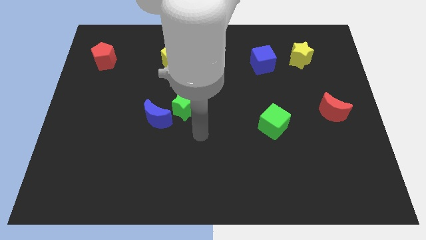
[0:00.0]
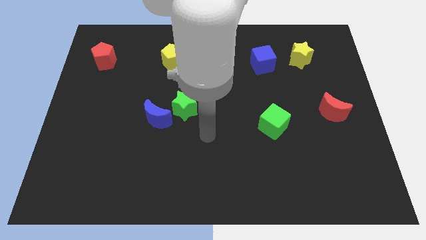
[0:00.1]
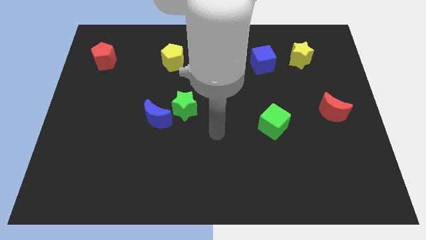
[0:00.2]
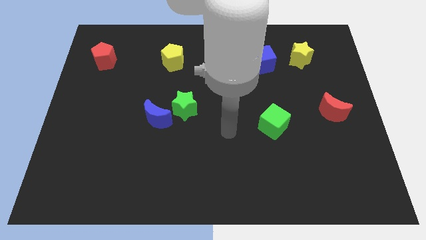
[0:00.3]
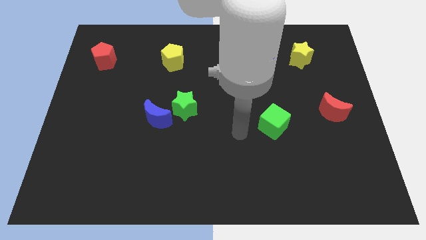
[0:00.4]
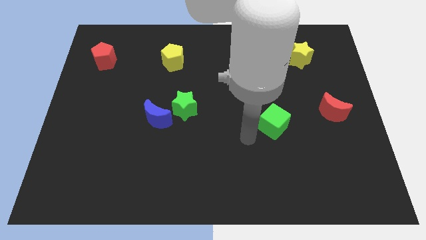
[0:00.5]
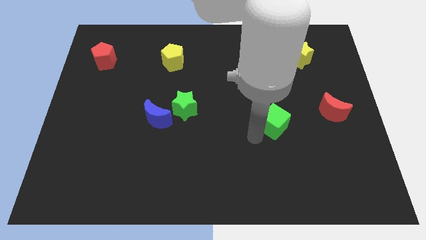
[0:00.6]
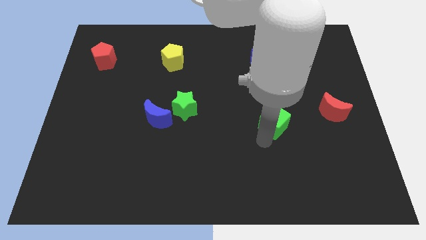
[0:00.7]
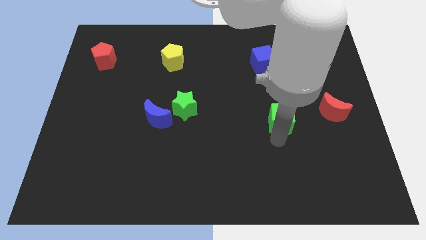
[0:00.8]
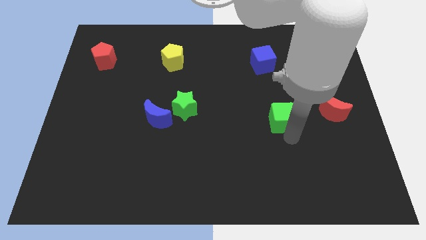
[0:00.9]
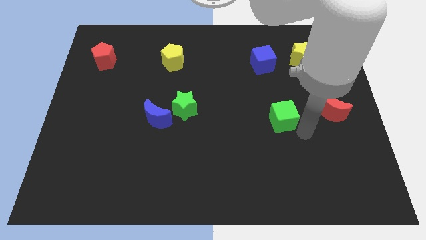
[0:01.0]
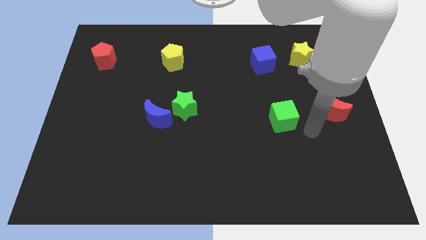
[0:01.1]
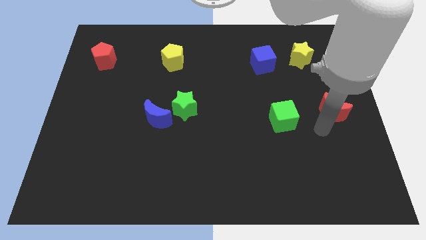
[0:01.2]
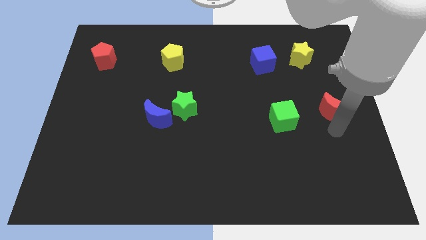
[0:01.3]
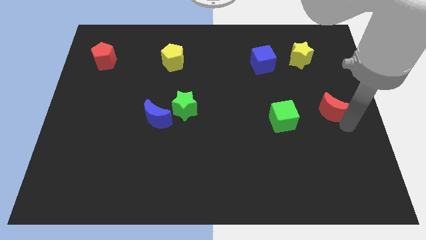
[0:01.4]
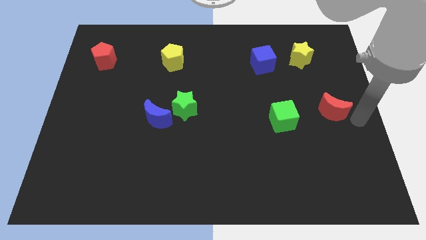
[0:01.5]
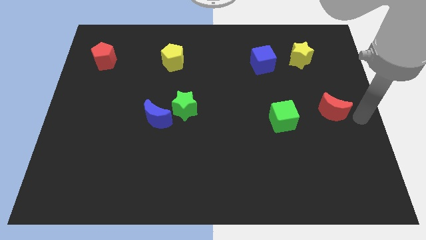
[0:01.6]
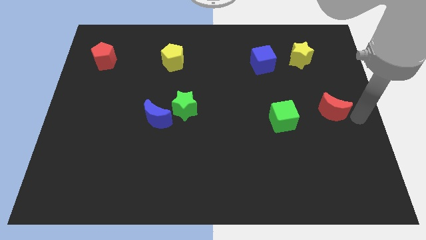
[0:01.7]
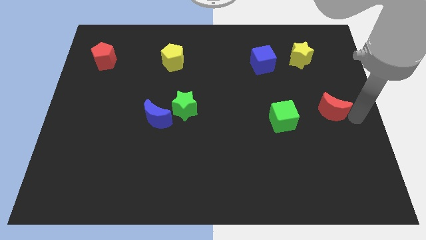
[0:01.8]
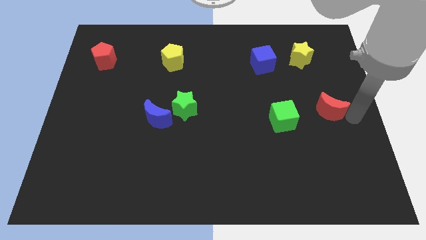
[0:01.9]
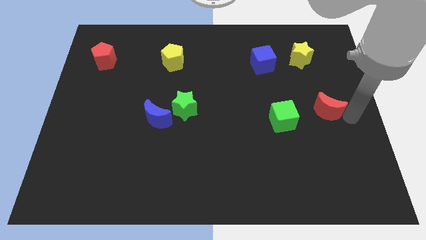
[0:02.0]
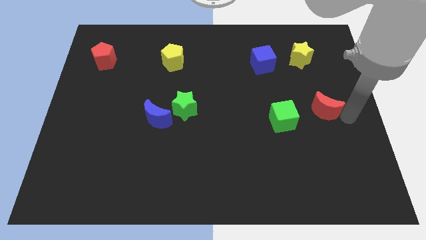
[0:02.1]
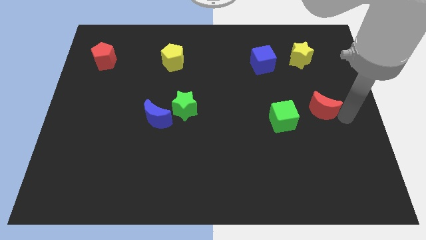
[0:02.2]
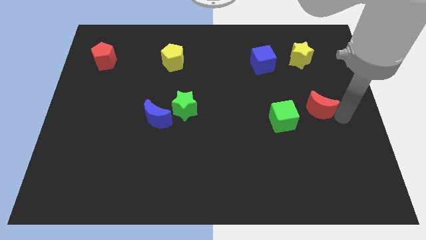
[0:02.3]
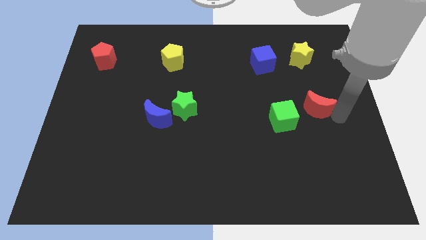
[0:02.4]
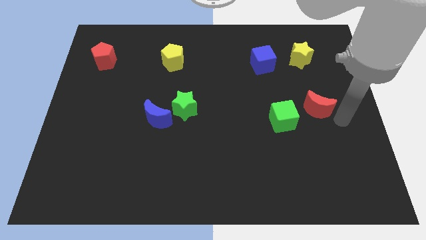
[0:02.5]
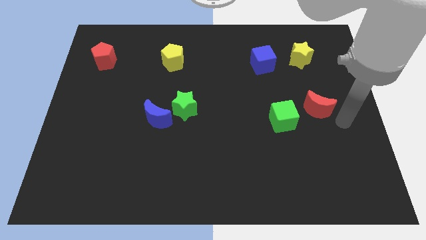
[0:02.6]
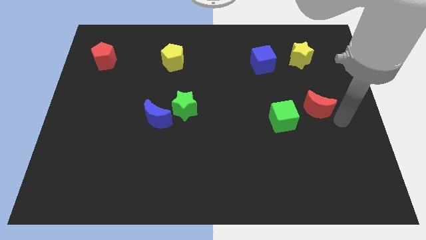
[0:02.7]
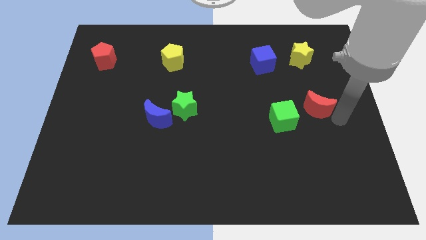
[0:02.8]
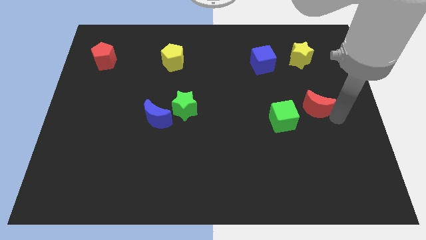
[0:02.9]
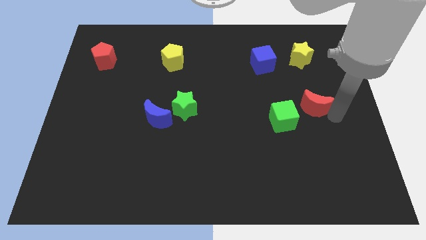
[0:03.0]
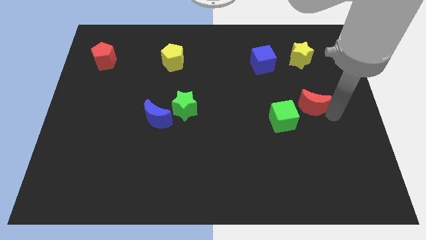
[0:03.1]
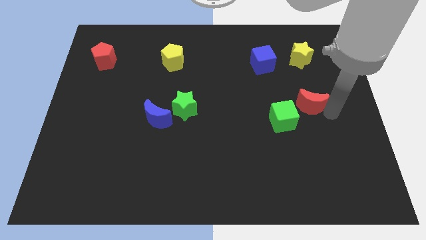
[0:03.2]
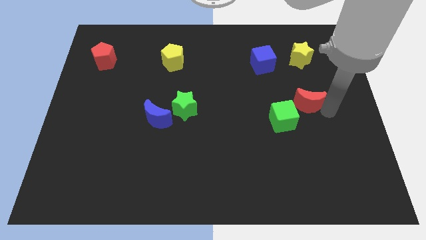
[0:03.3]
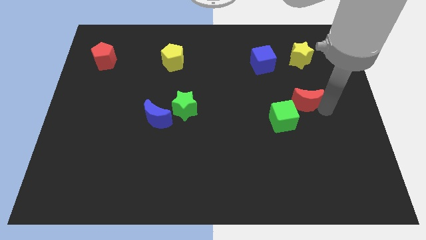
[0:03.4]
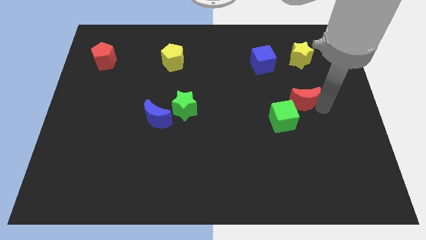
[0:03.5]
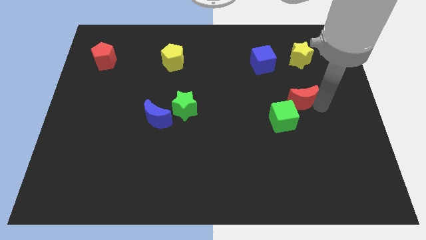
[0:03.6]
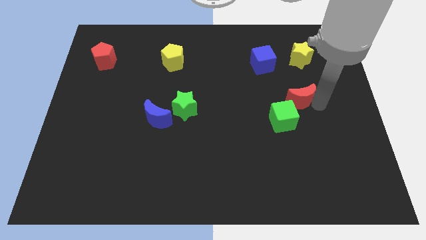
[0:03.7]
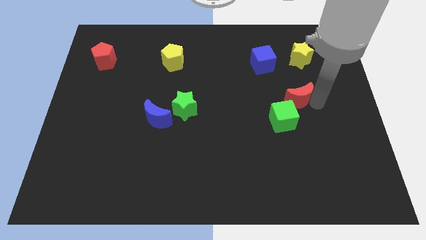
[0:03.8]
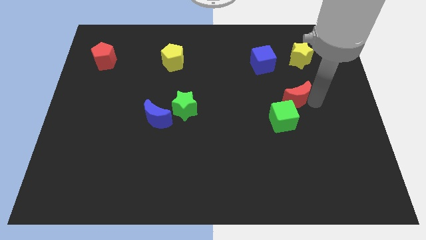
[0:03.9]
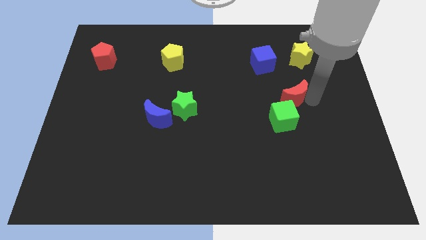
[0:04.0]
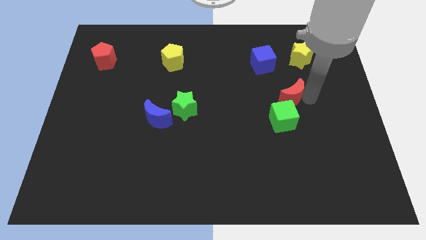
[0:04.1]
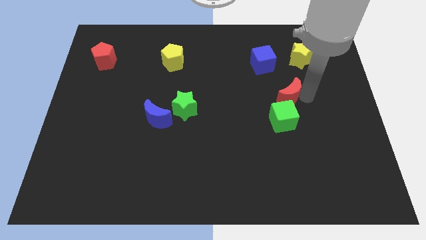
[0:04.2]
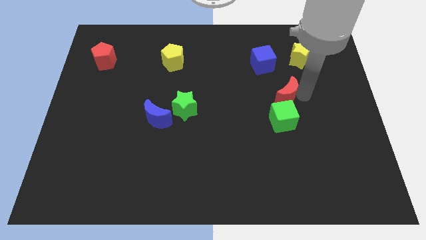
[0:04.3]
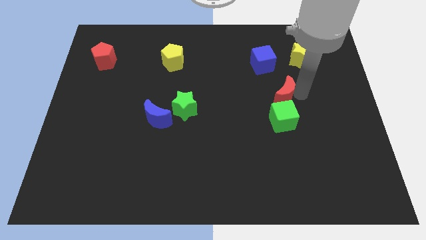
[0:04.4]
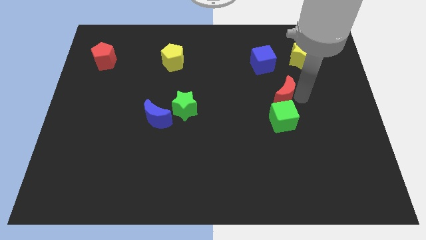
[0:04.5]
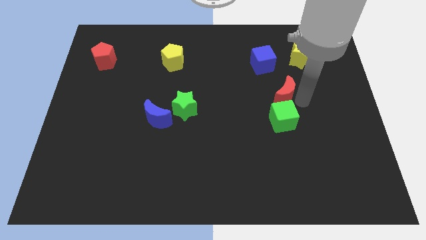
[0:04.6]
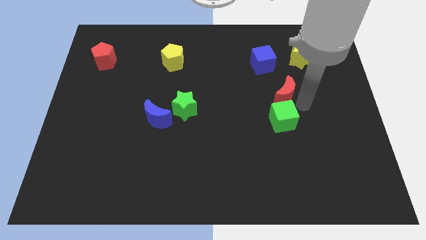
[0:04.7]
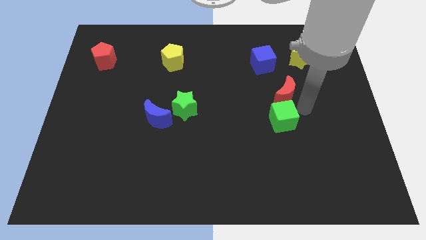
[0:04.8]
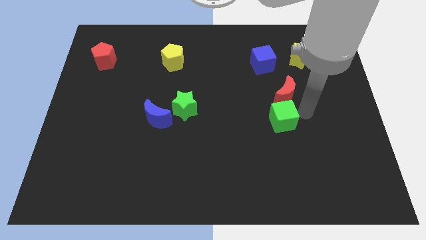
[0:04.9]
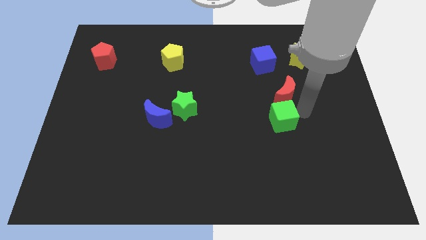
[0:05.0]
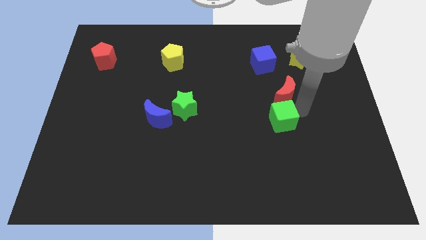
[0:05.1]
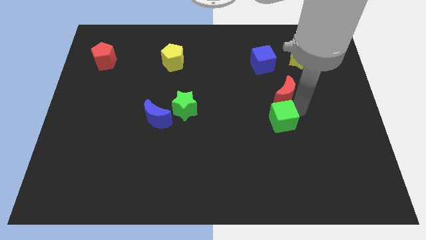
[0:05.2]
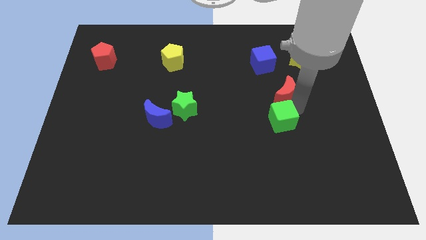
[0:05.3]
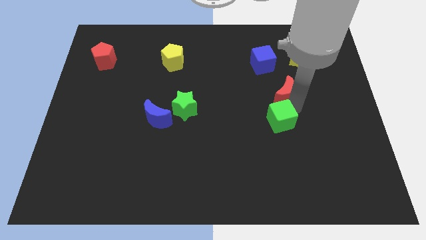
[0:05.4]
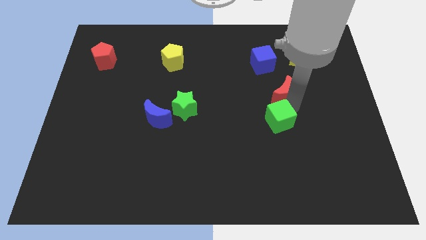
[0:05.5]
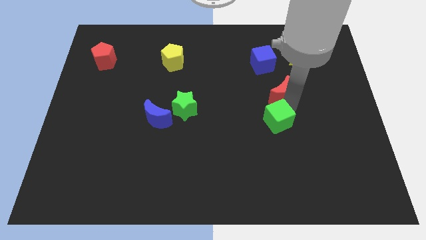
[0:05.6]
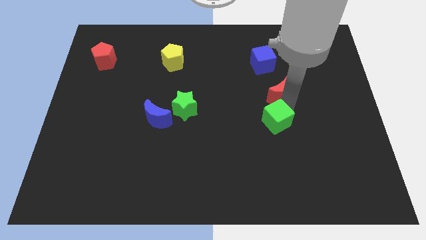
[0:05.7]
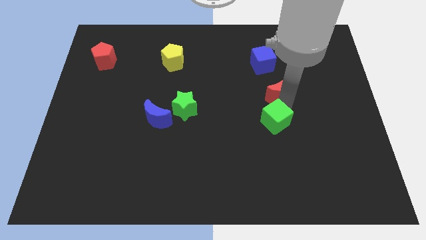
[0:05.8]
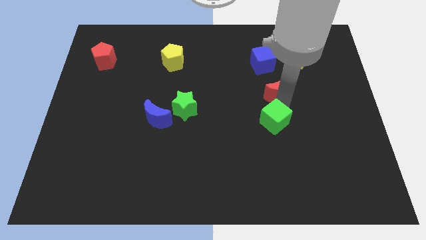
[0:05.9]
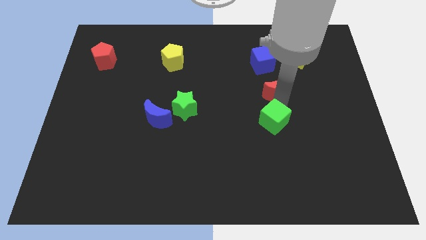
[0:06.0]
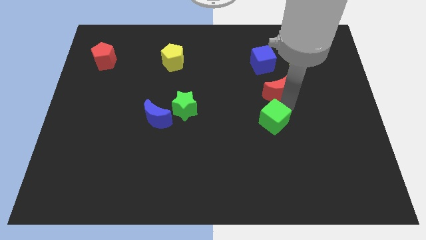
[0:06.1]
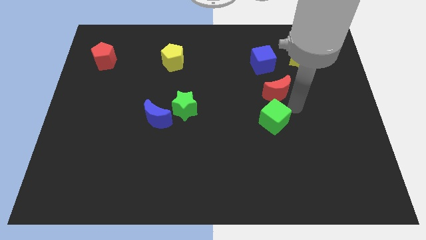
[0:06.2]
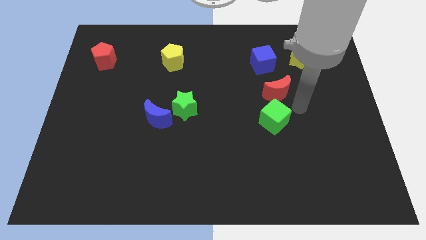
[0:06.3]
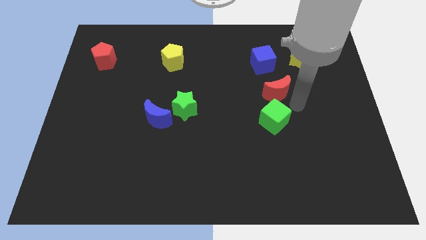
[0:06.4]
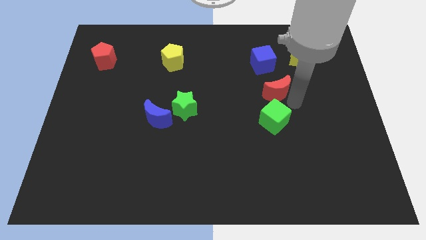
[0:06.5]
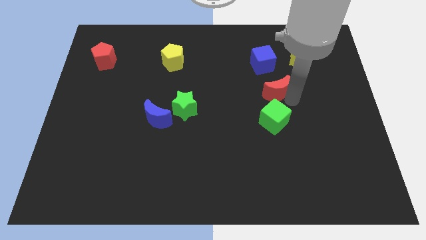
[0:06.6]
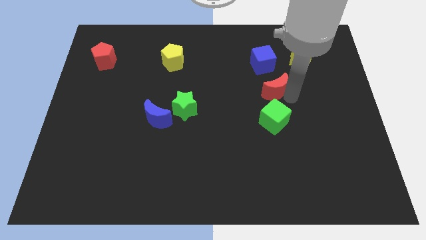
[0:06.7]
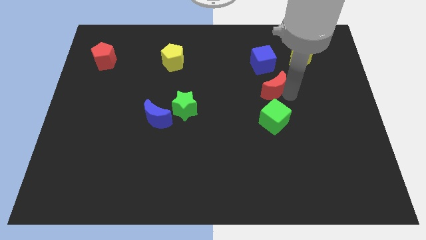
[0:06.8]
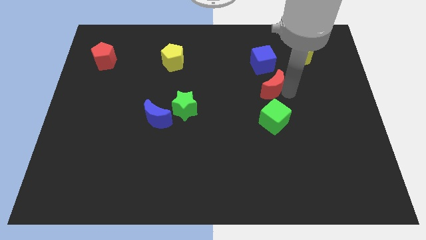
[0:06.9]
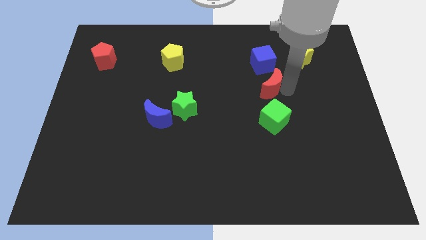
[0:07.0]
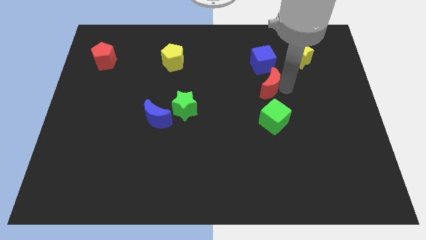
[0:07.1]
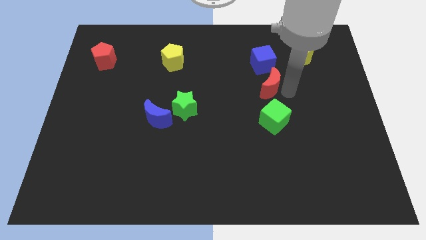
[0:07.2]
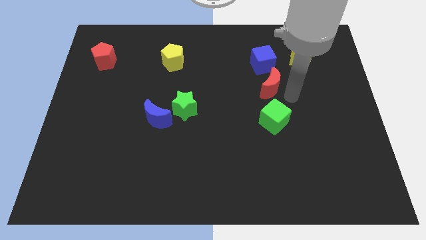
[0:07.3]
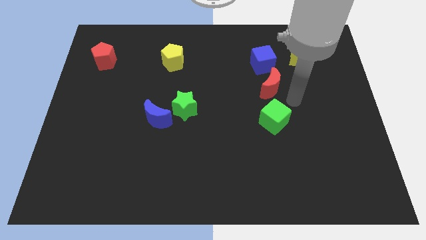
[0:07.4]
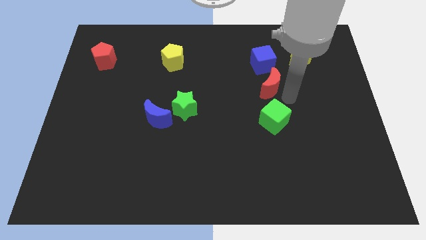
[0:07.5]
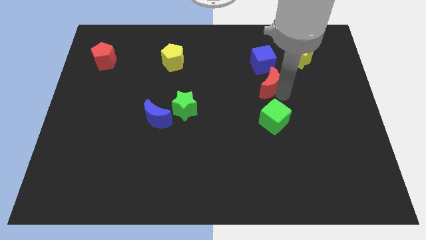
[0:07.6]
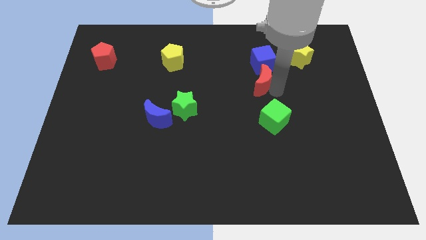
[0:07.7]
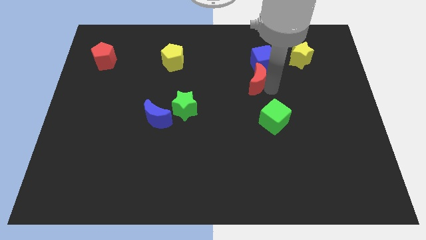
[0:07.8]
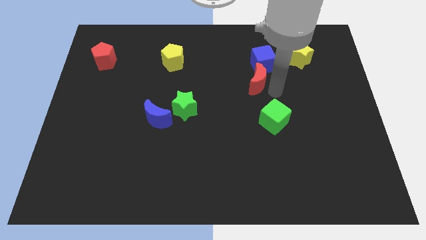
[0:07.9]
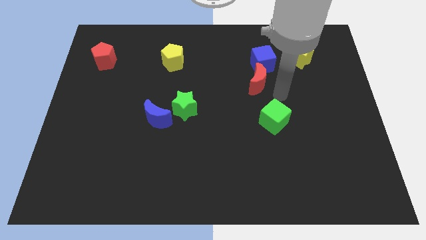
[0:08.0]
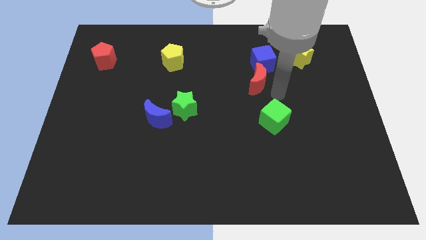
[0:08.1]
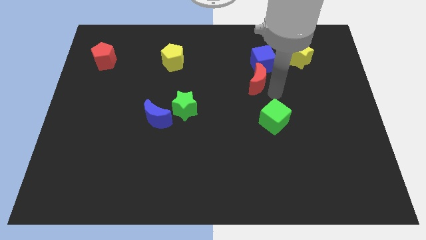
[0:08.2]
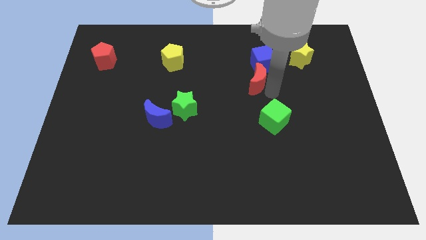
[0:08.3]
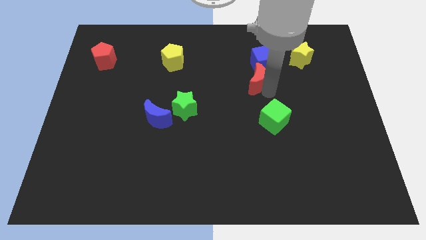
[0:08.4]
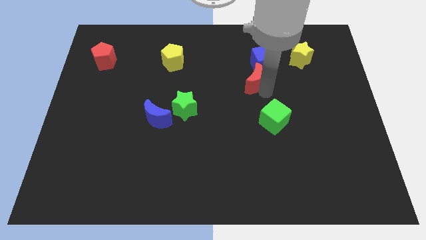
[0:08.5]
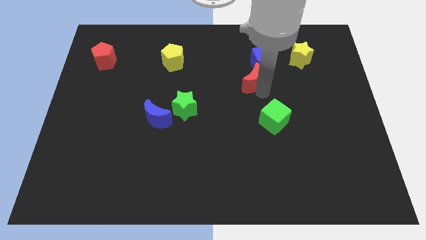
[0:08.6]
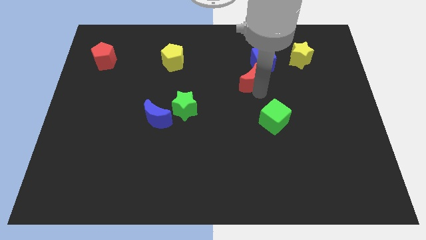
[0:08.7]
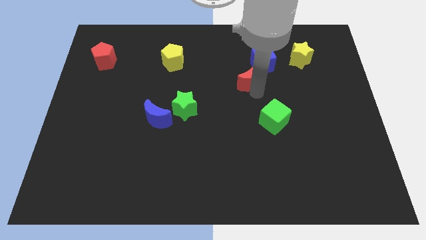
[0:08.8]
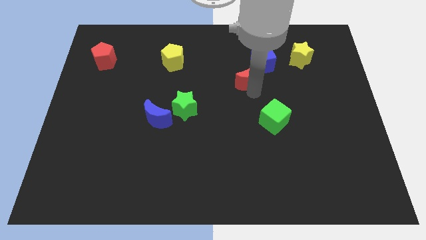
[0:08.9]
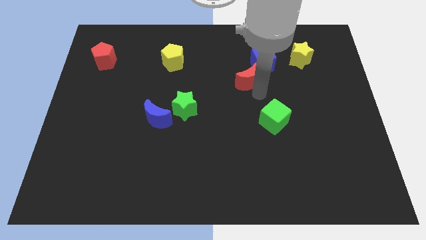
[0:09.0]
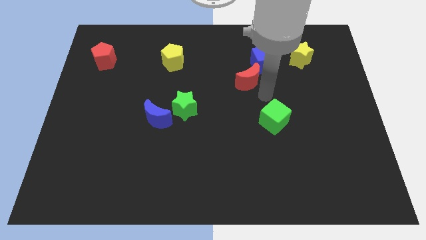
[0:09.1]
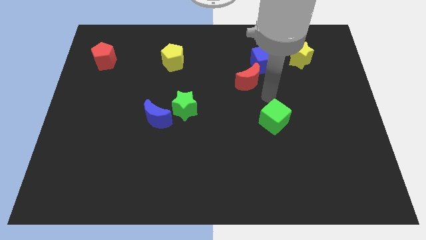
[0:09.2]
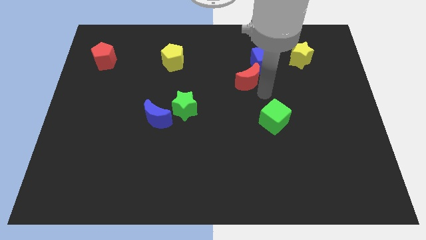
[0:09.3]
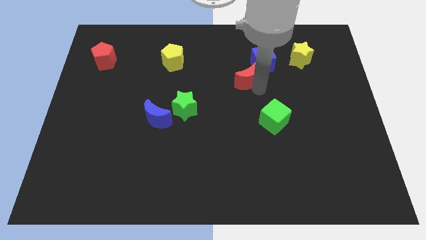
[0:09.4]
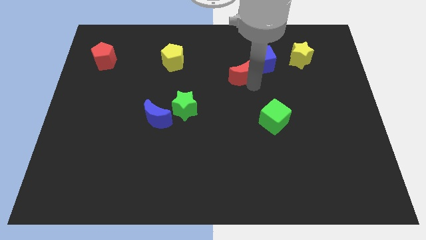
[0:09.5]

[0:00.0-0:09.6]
push the red moon left of the blue cube
